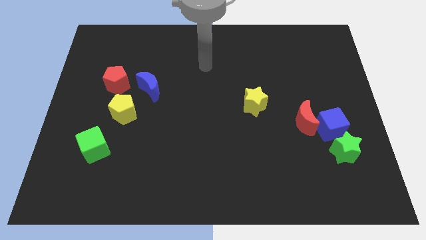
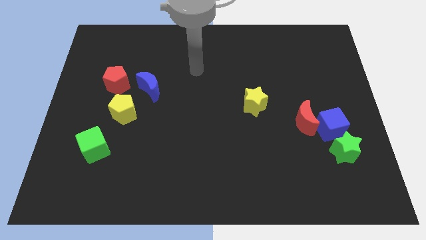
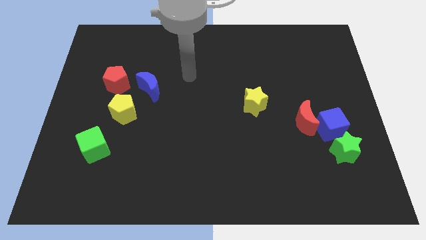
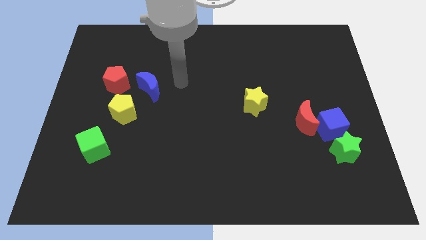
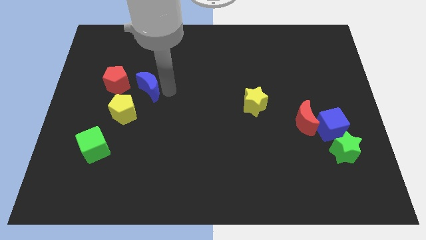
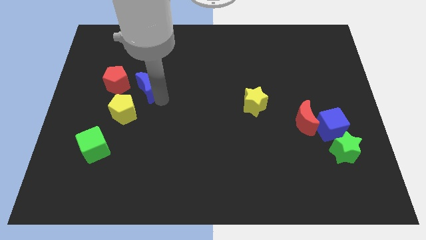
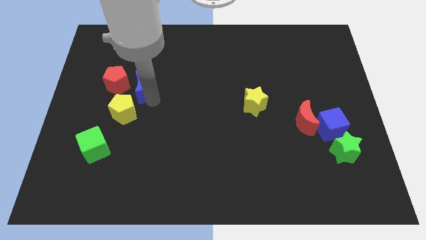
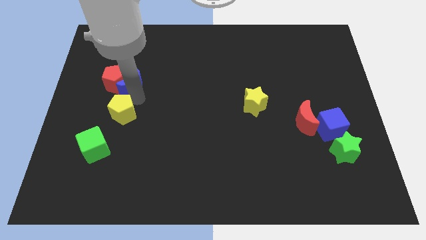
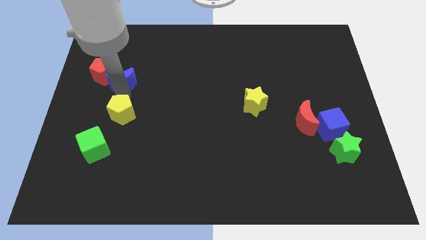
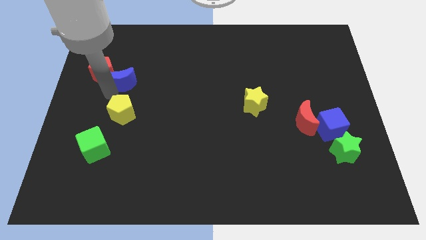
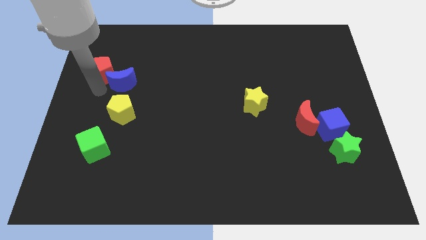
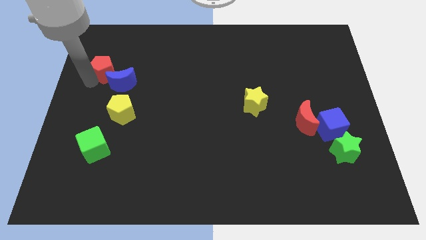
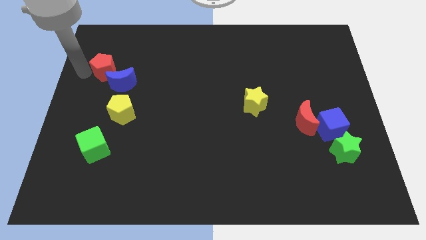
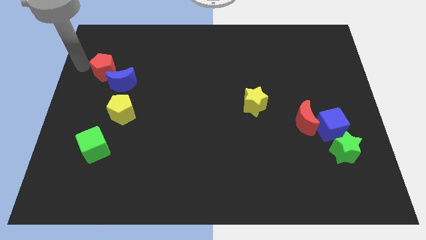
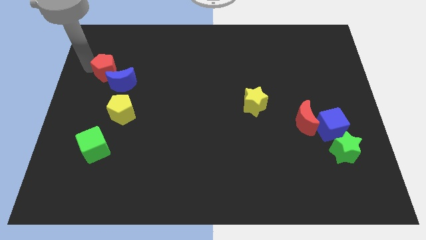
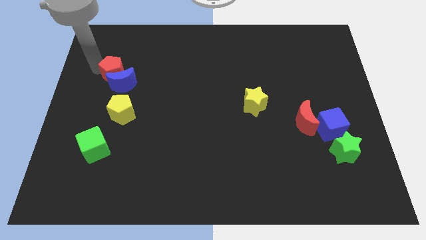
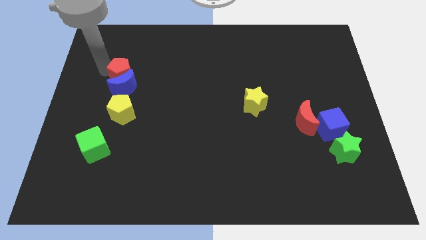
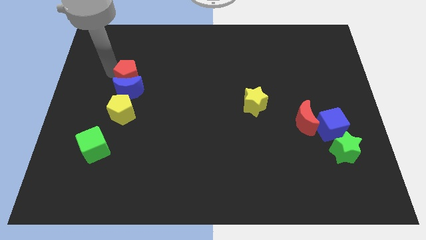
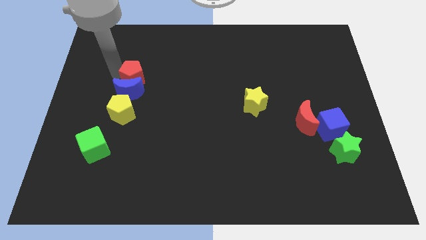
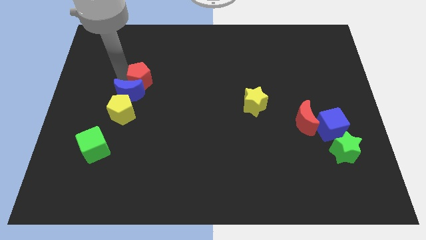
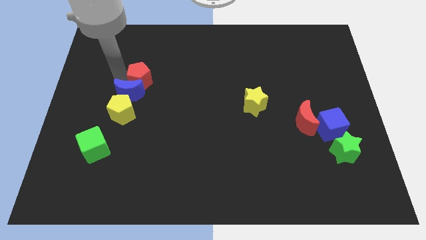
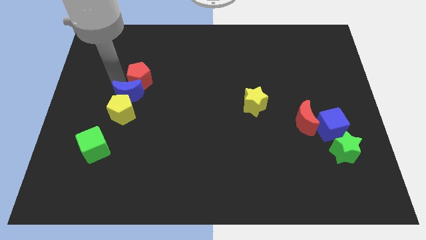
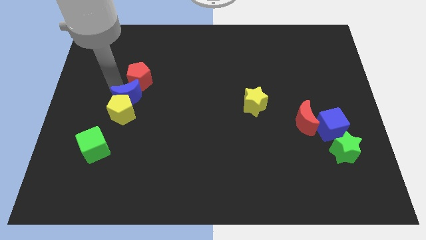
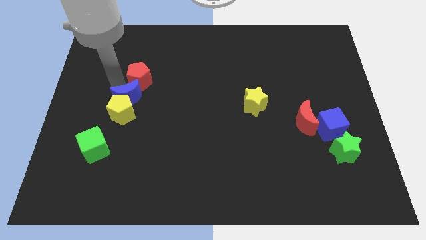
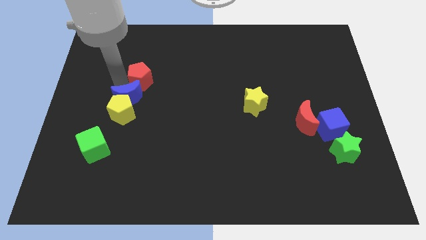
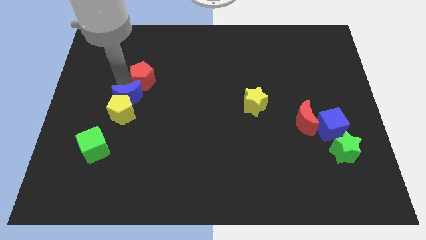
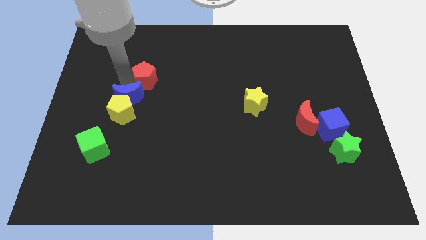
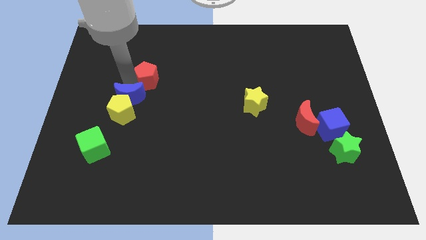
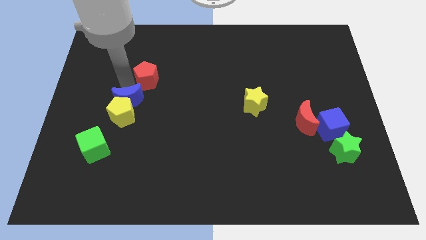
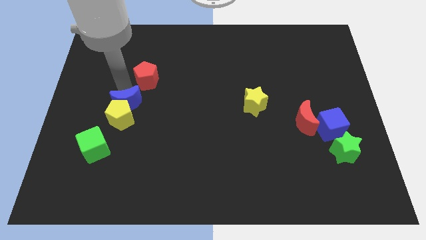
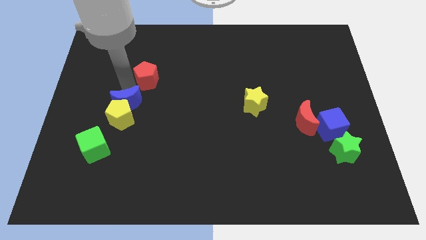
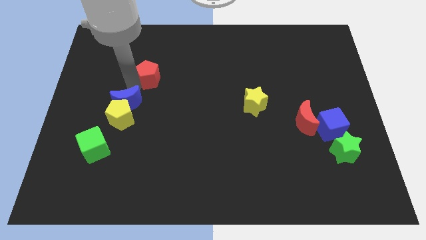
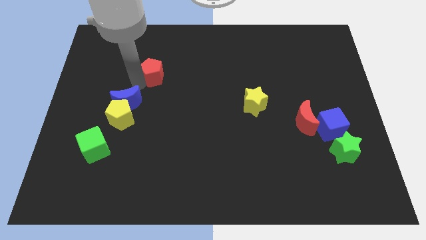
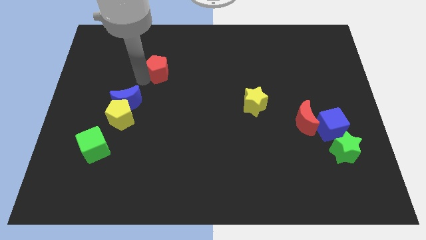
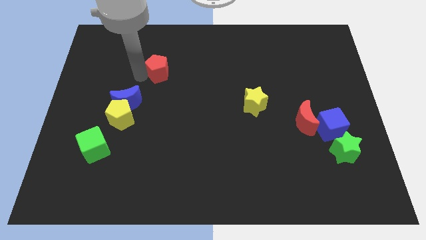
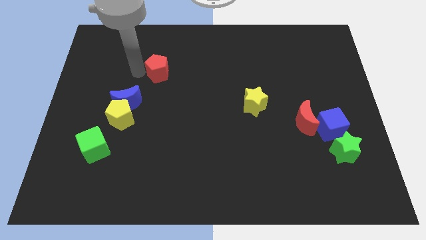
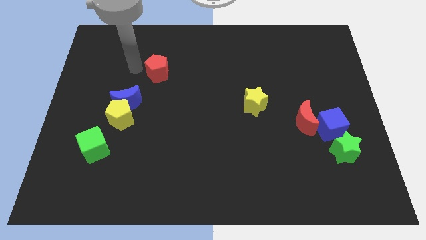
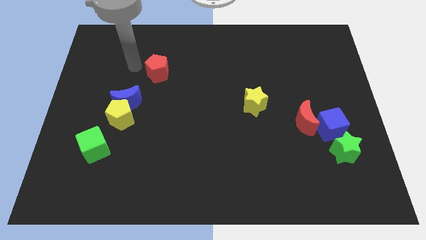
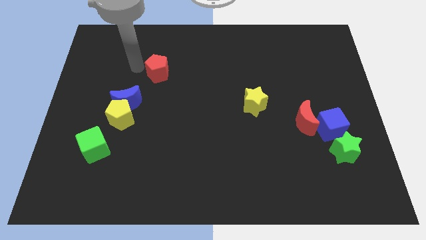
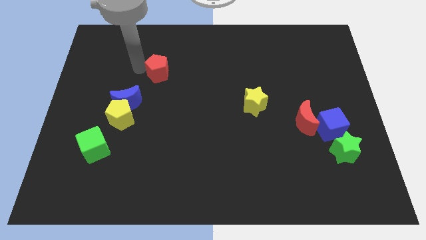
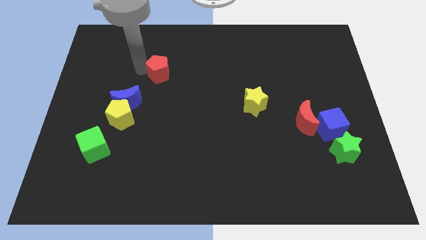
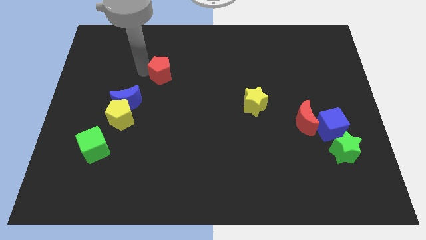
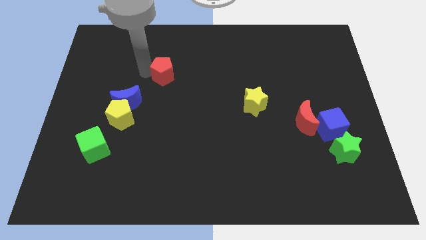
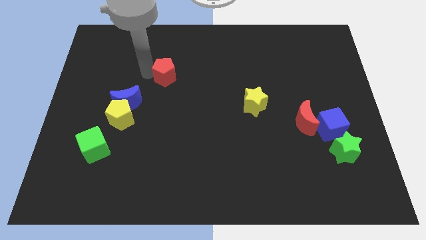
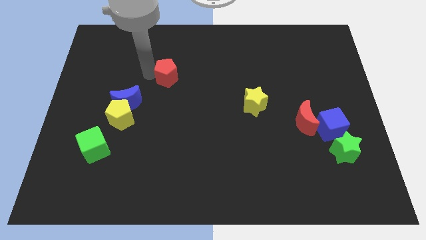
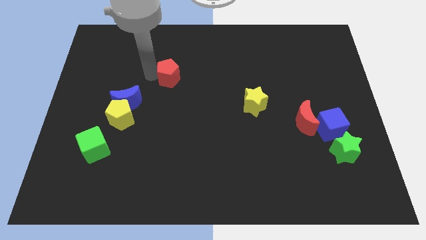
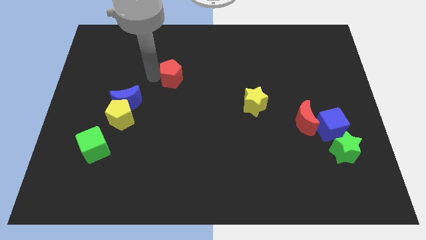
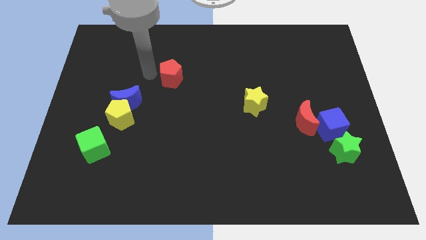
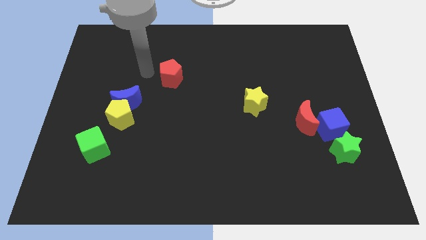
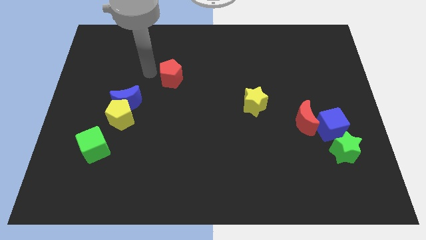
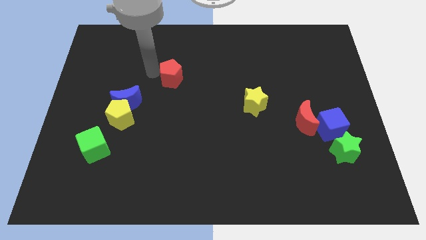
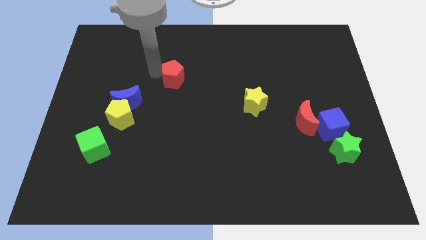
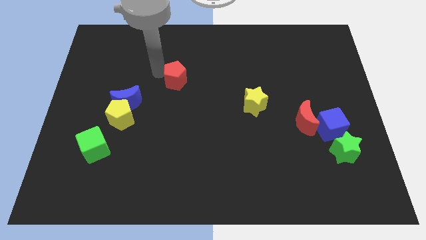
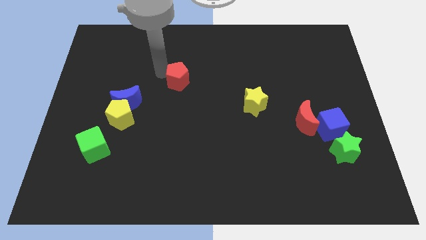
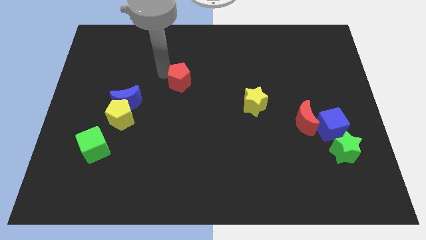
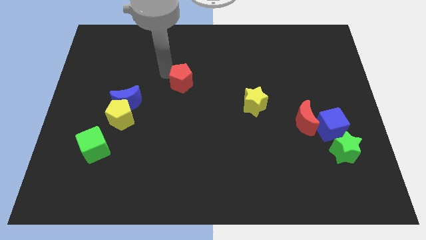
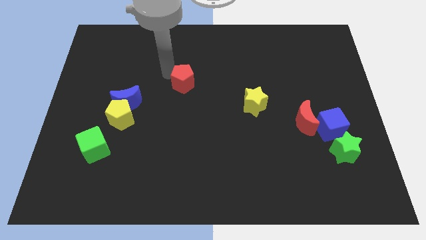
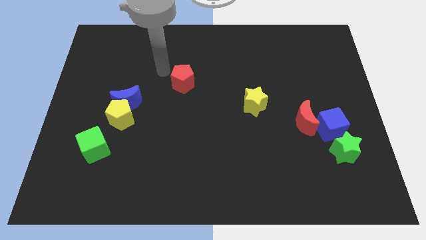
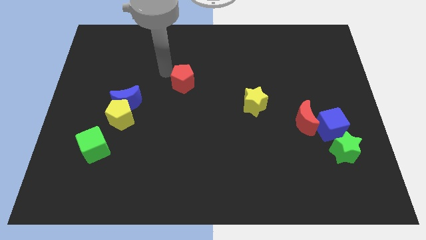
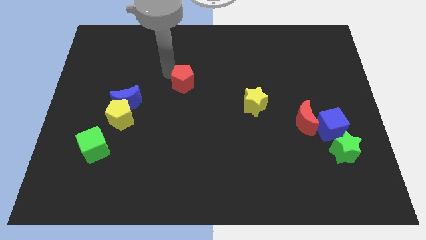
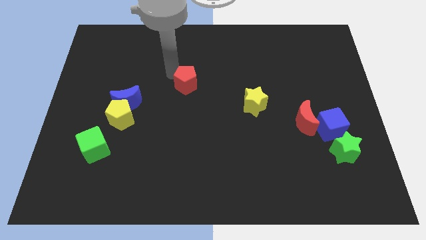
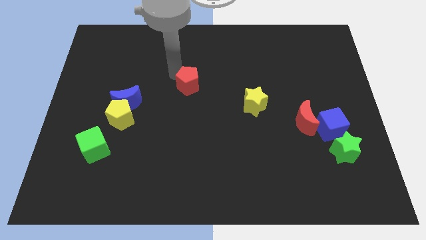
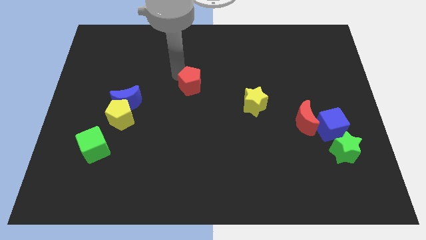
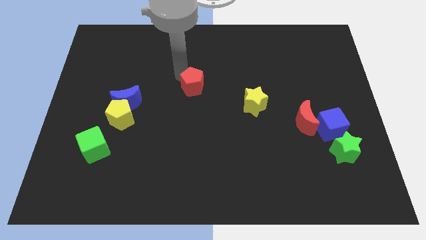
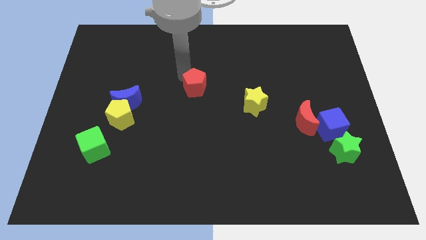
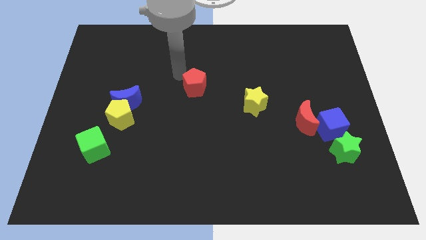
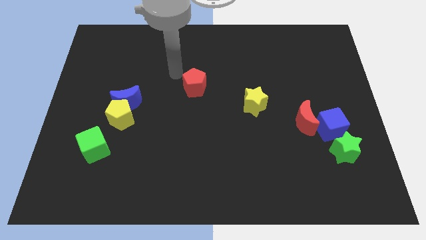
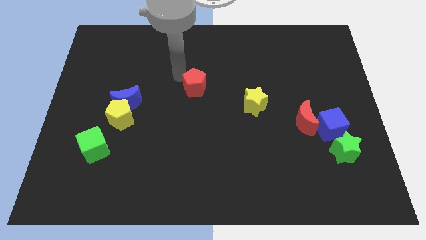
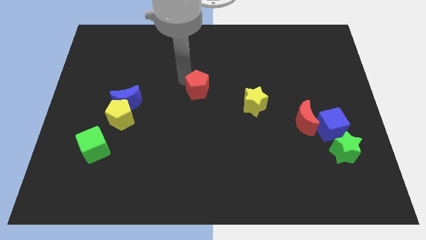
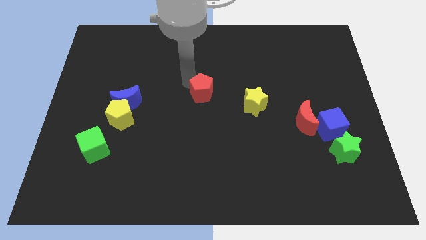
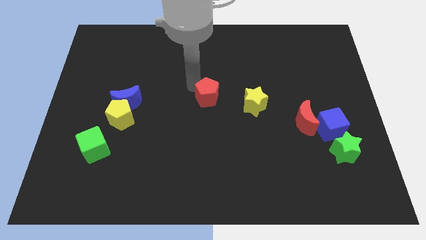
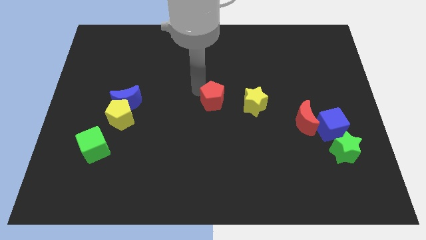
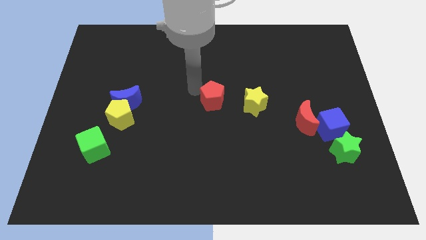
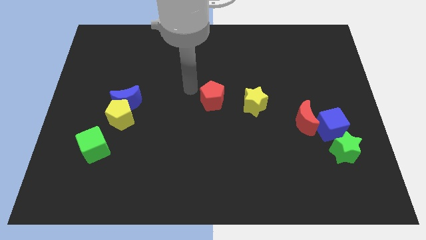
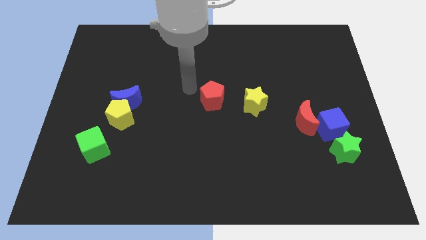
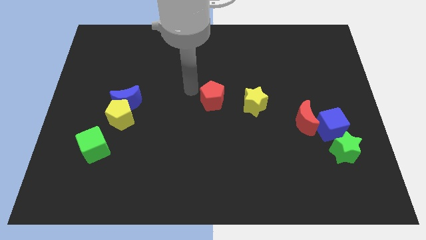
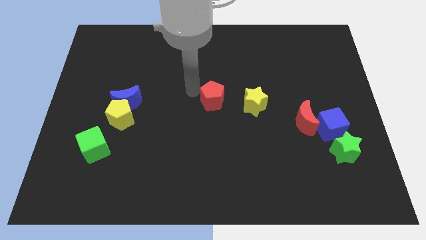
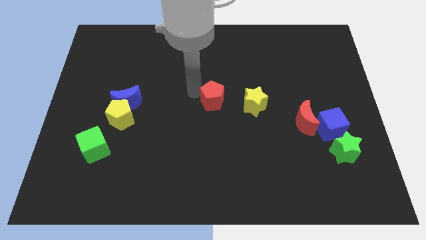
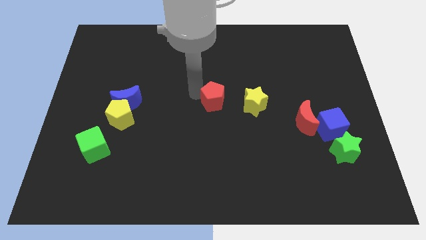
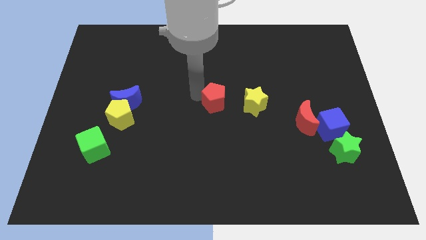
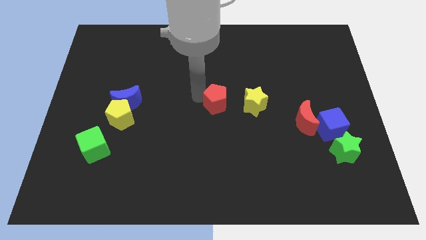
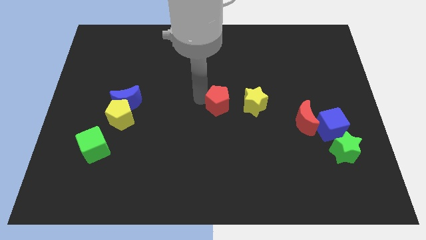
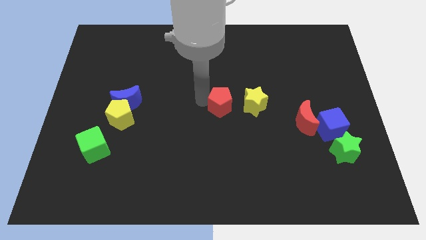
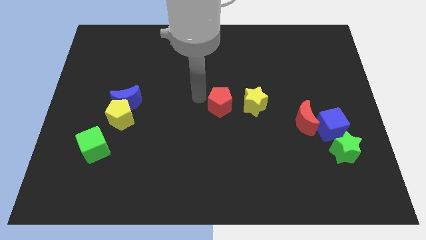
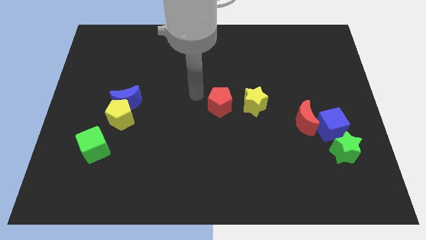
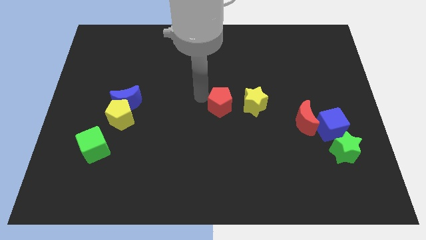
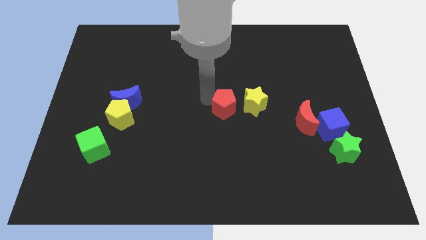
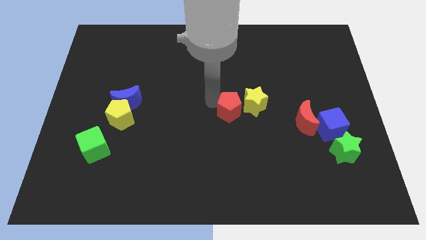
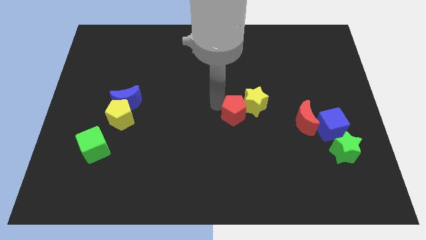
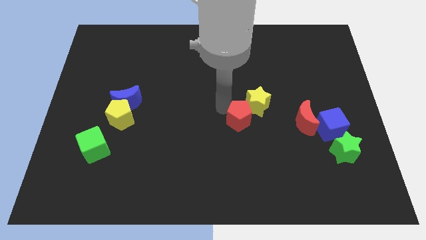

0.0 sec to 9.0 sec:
slide the red pentagon left of the red moon
